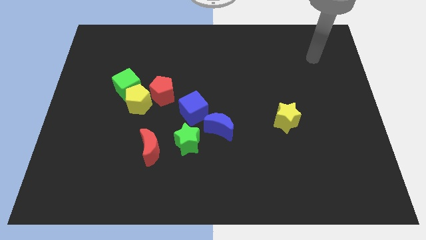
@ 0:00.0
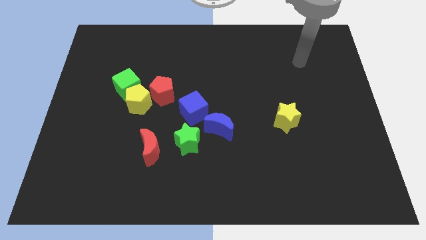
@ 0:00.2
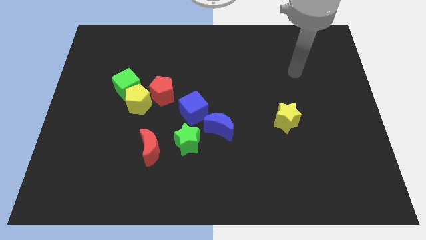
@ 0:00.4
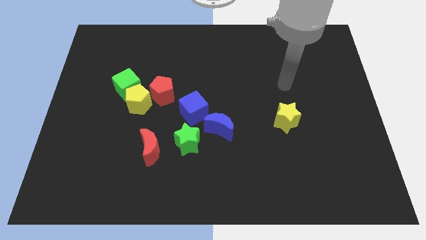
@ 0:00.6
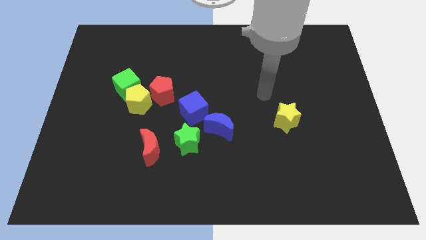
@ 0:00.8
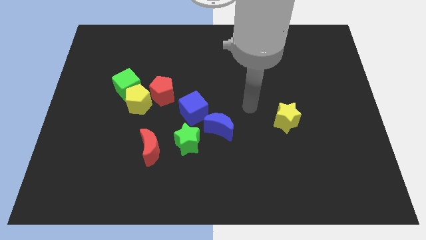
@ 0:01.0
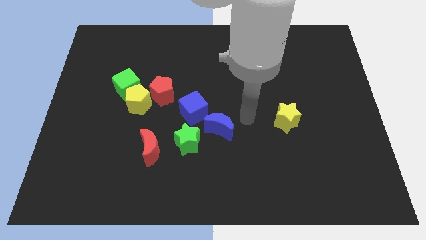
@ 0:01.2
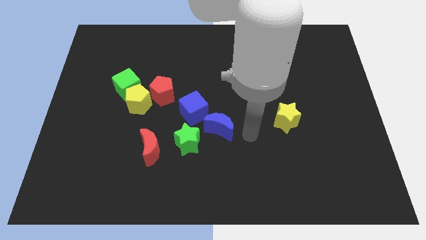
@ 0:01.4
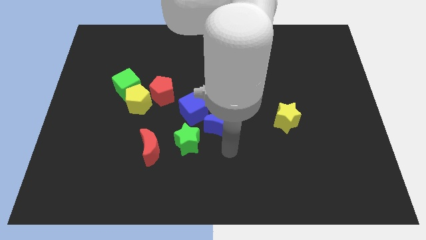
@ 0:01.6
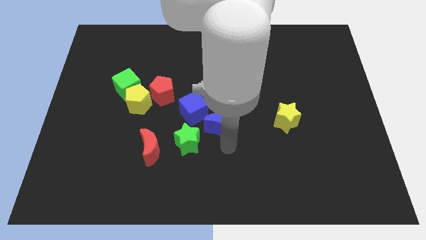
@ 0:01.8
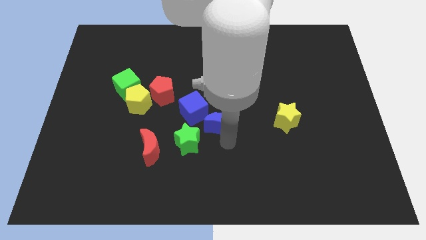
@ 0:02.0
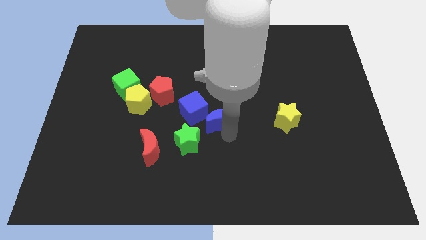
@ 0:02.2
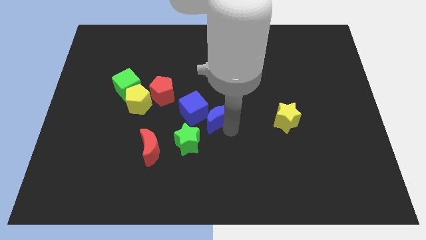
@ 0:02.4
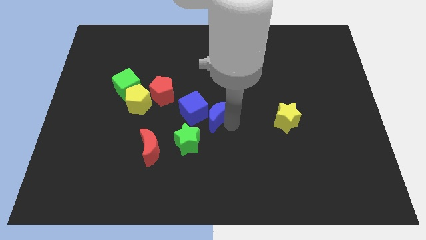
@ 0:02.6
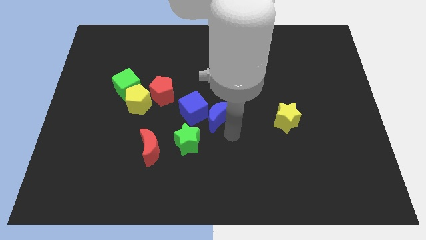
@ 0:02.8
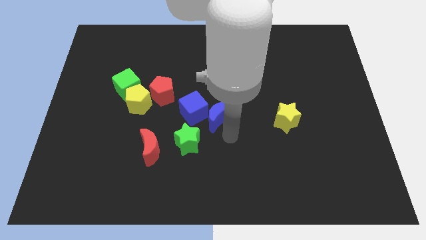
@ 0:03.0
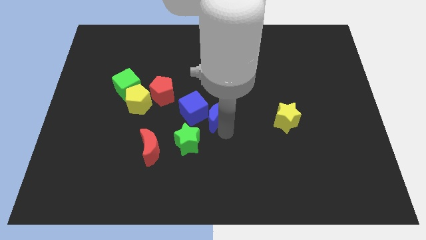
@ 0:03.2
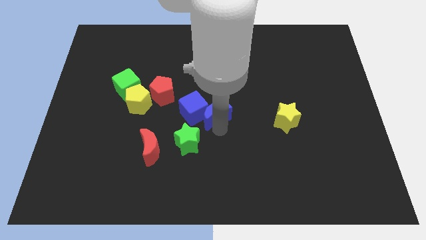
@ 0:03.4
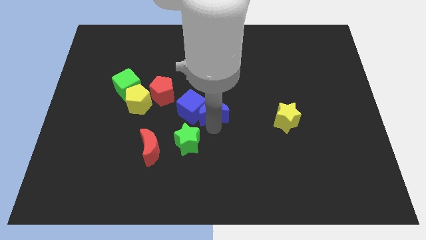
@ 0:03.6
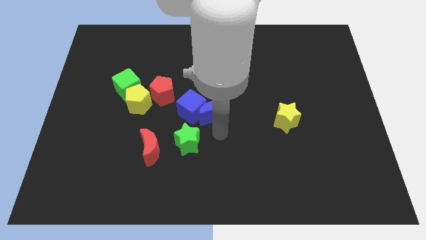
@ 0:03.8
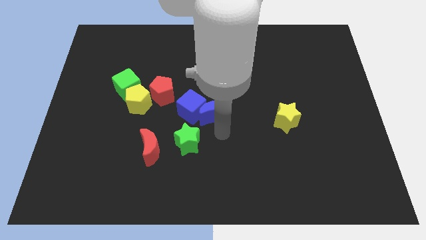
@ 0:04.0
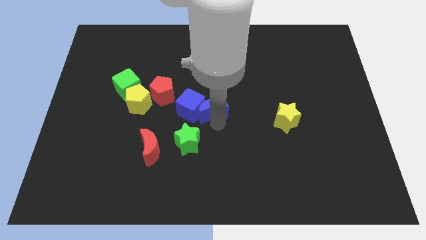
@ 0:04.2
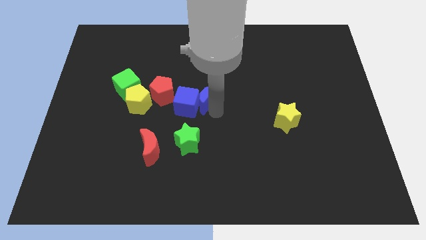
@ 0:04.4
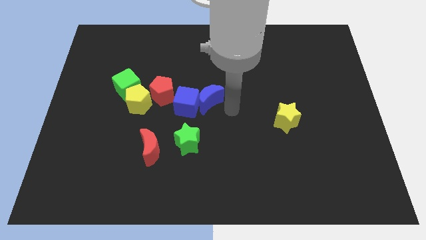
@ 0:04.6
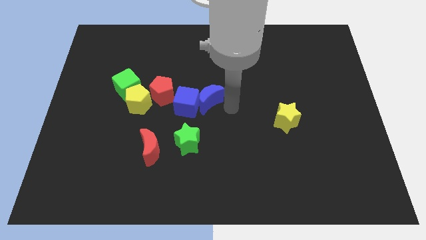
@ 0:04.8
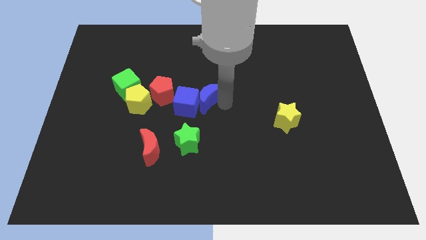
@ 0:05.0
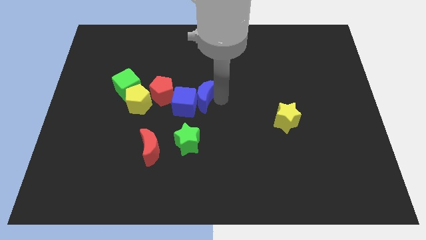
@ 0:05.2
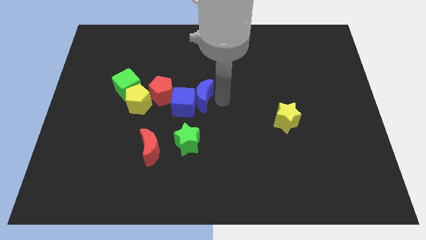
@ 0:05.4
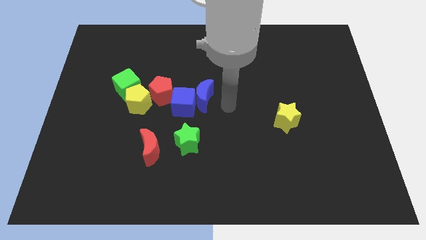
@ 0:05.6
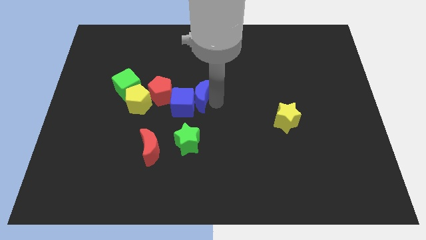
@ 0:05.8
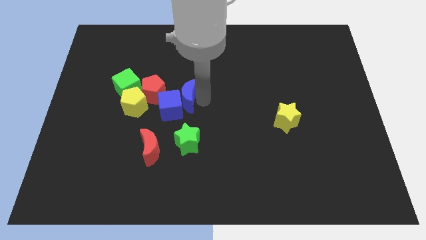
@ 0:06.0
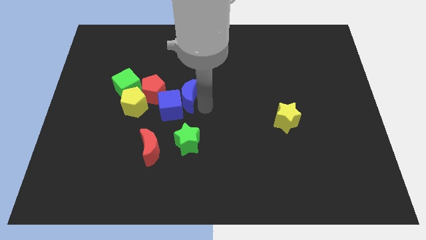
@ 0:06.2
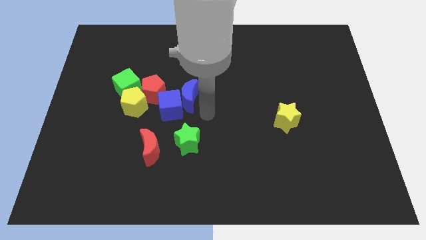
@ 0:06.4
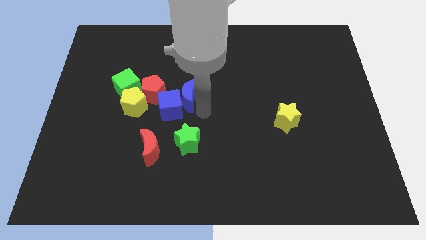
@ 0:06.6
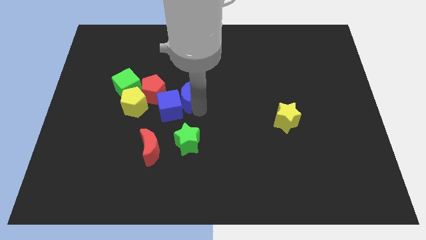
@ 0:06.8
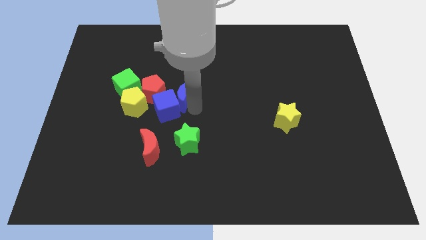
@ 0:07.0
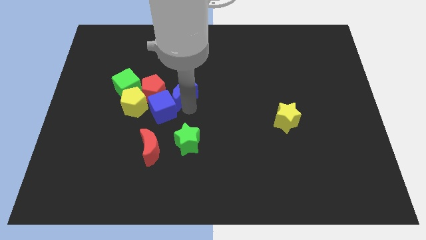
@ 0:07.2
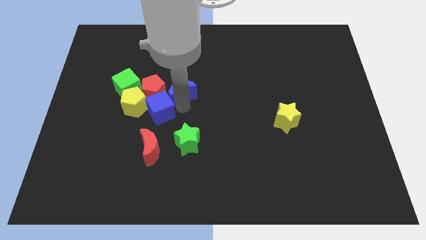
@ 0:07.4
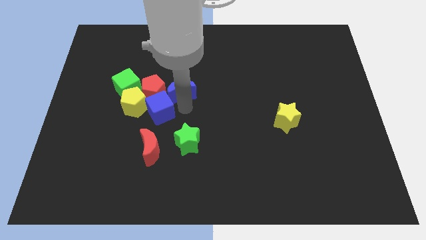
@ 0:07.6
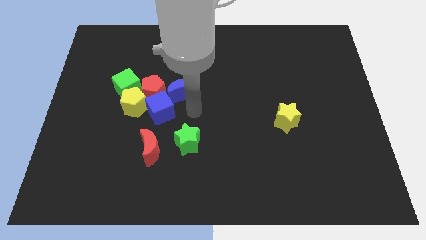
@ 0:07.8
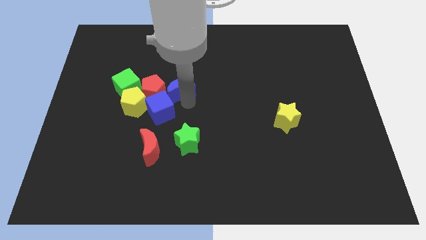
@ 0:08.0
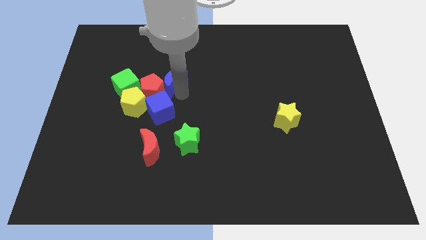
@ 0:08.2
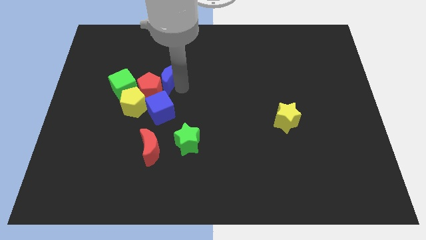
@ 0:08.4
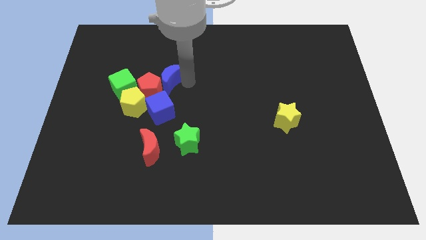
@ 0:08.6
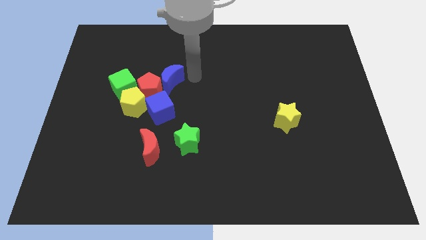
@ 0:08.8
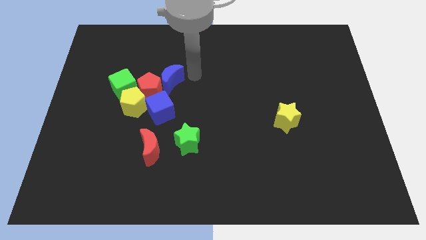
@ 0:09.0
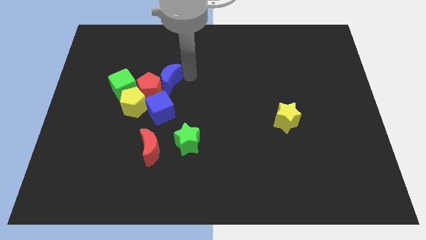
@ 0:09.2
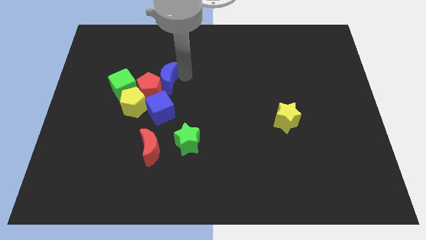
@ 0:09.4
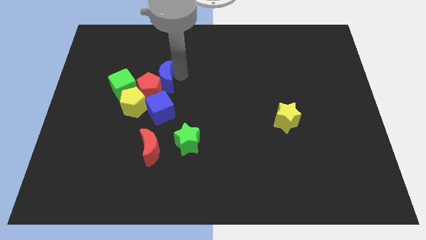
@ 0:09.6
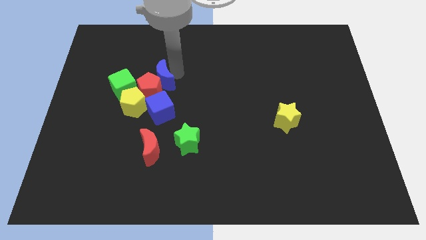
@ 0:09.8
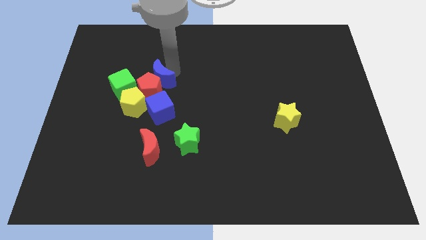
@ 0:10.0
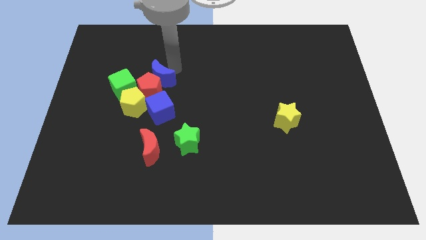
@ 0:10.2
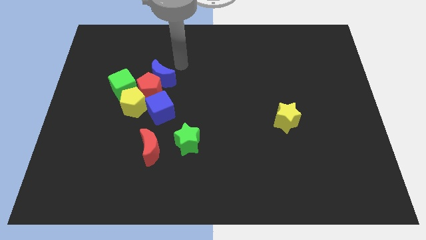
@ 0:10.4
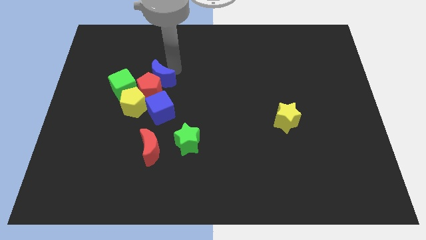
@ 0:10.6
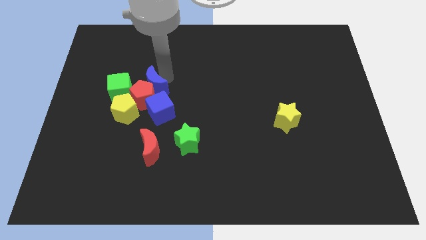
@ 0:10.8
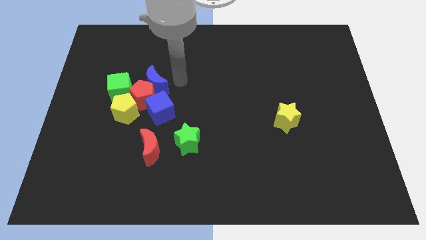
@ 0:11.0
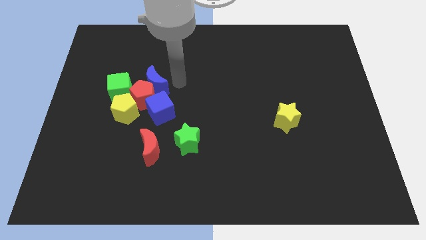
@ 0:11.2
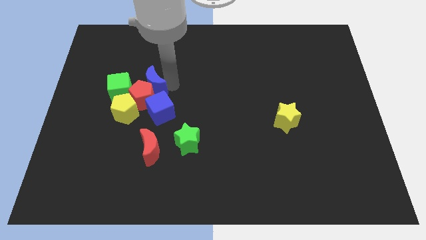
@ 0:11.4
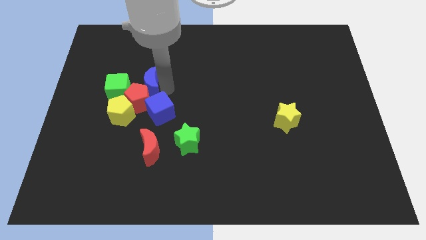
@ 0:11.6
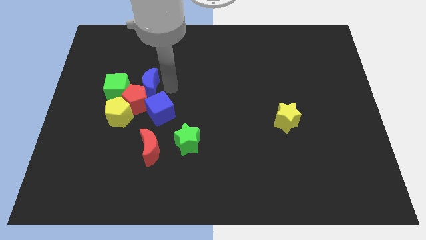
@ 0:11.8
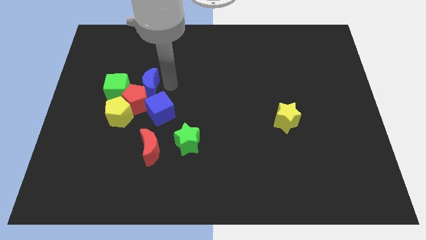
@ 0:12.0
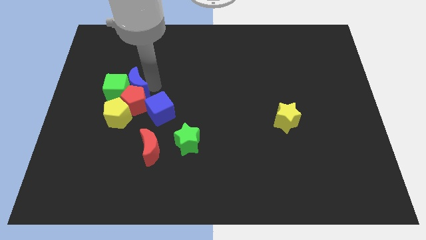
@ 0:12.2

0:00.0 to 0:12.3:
push the blue moon close to the green cube

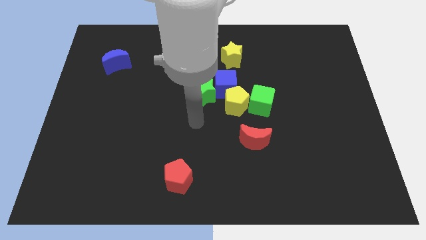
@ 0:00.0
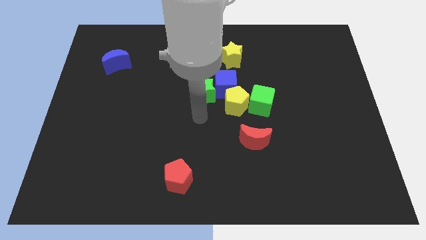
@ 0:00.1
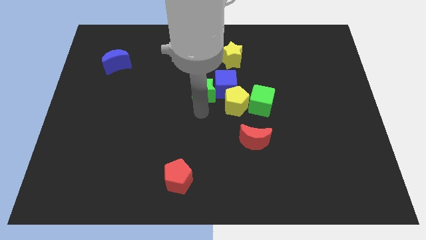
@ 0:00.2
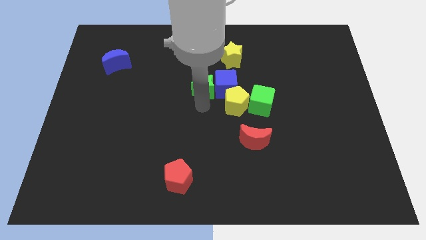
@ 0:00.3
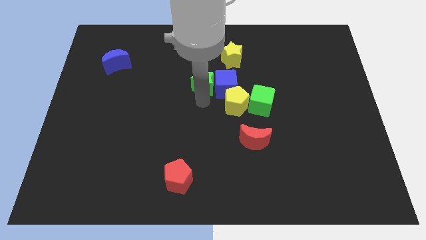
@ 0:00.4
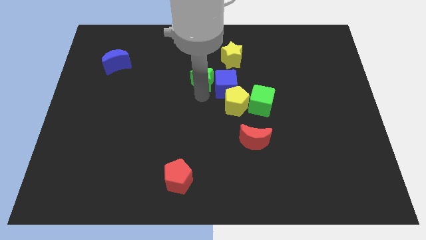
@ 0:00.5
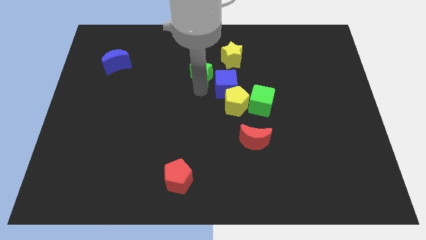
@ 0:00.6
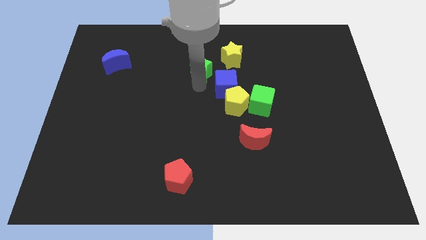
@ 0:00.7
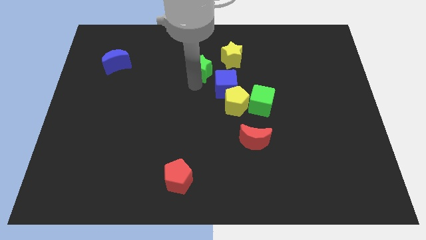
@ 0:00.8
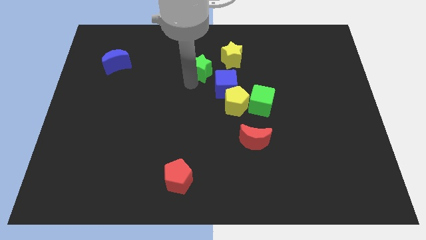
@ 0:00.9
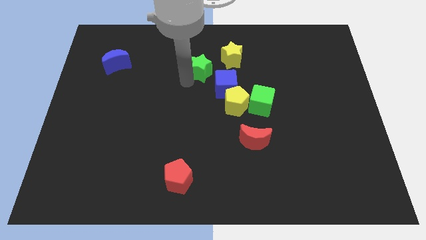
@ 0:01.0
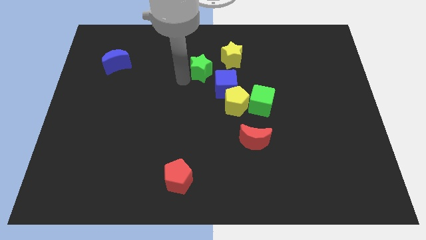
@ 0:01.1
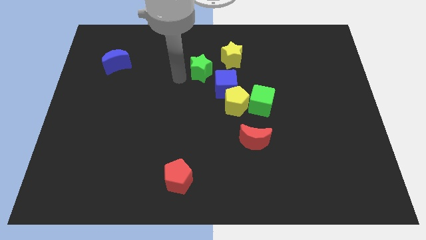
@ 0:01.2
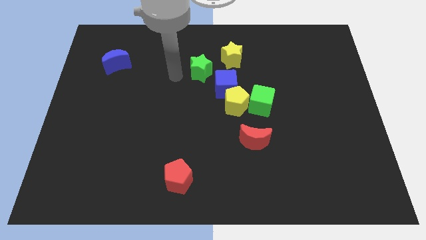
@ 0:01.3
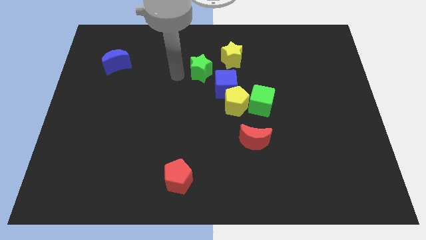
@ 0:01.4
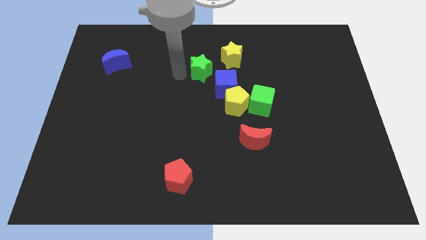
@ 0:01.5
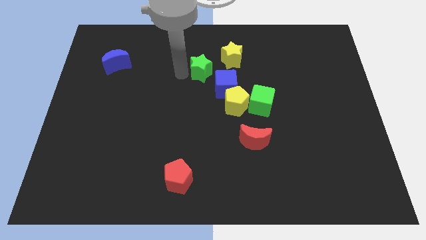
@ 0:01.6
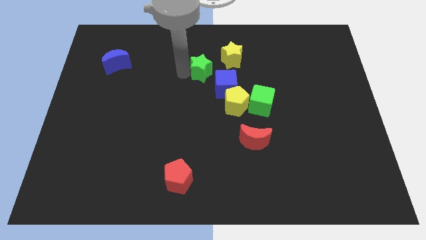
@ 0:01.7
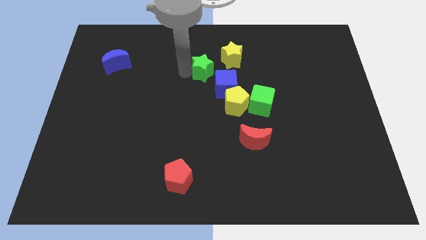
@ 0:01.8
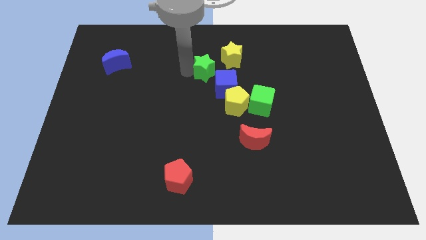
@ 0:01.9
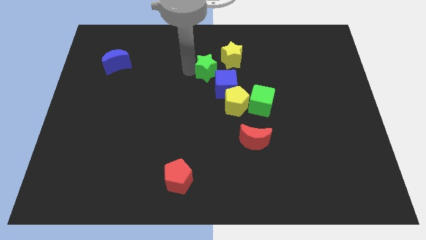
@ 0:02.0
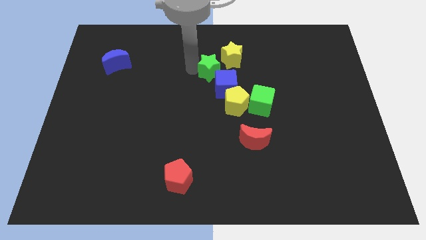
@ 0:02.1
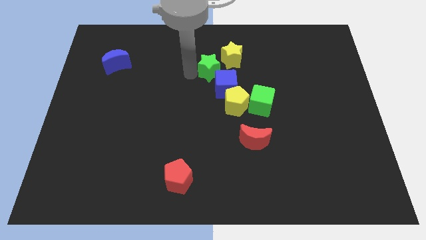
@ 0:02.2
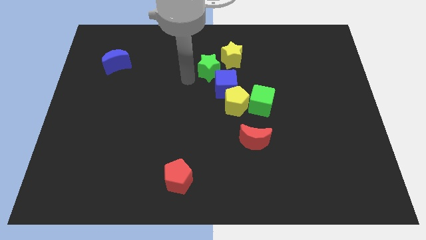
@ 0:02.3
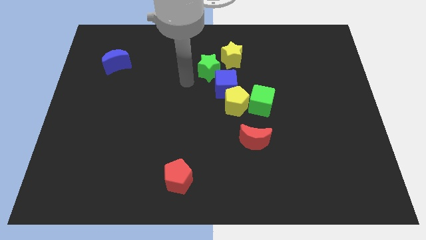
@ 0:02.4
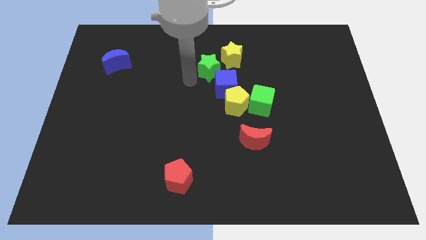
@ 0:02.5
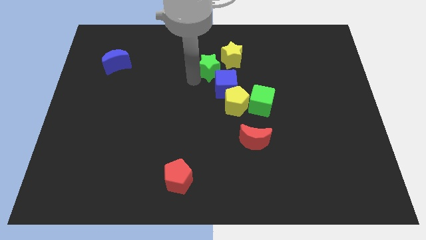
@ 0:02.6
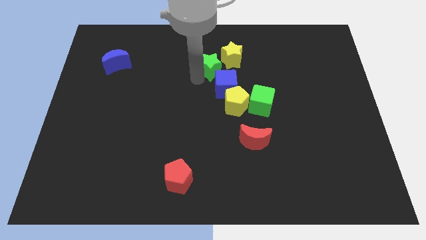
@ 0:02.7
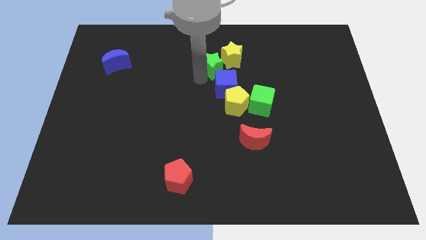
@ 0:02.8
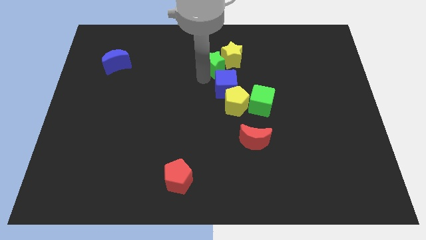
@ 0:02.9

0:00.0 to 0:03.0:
move the green star close to the yellow star
